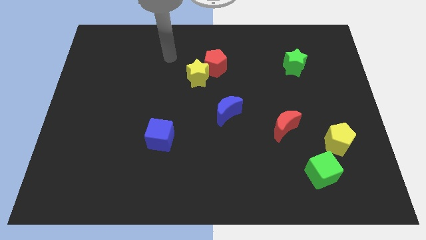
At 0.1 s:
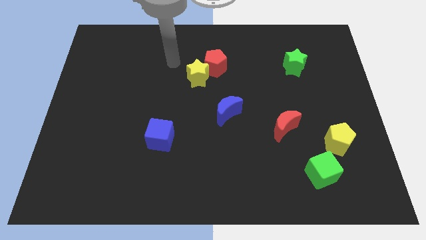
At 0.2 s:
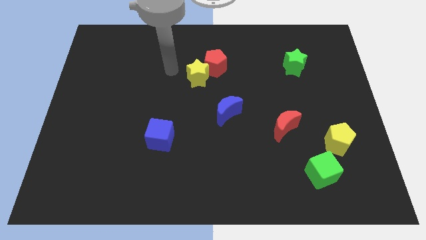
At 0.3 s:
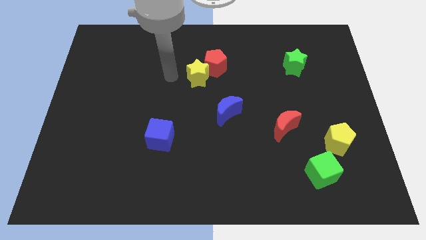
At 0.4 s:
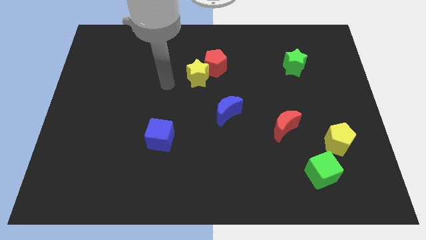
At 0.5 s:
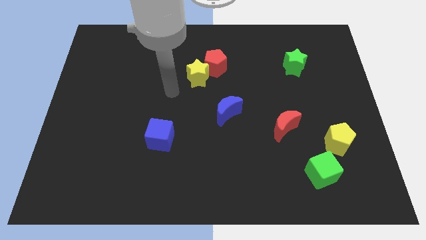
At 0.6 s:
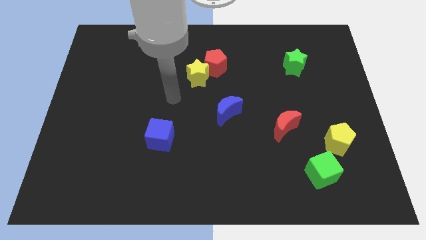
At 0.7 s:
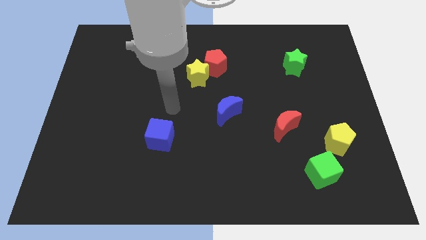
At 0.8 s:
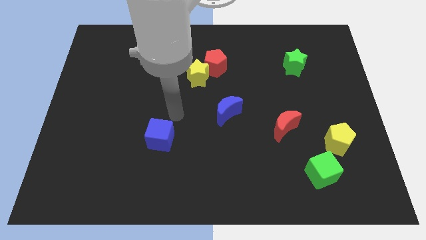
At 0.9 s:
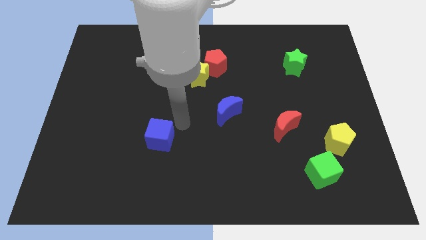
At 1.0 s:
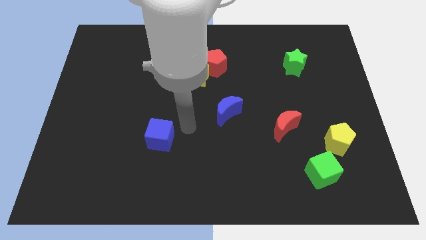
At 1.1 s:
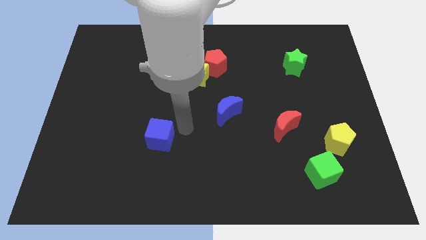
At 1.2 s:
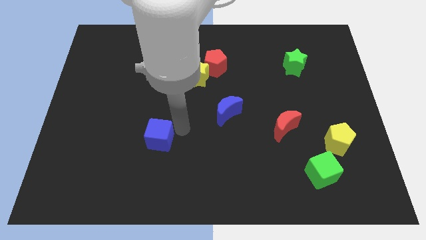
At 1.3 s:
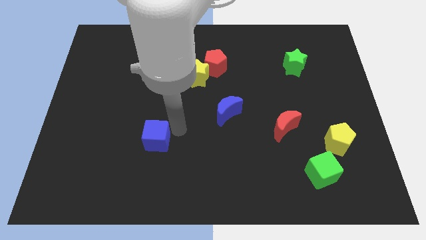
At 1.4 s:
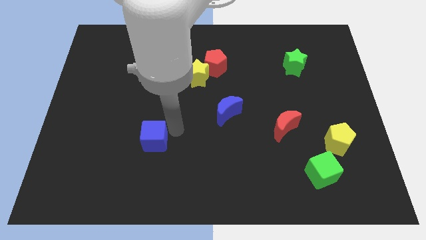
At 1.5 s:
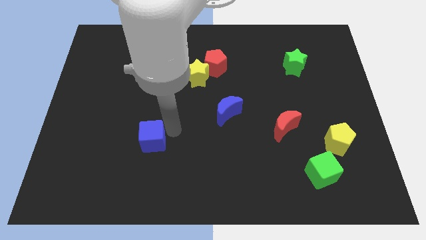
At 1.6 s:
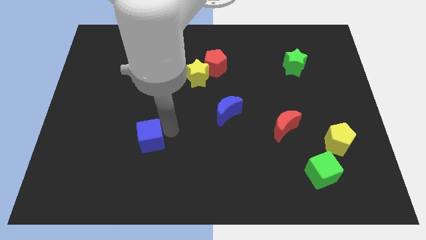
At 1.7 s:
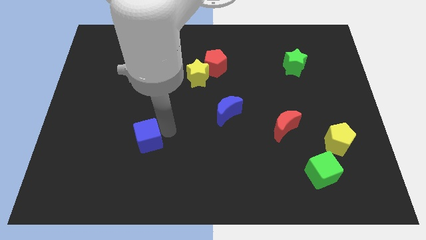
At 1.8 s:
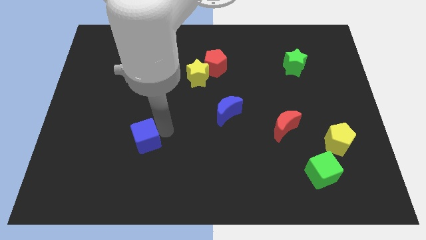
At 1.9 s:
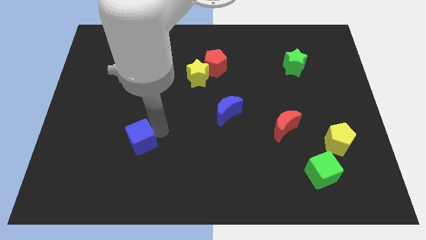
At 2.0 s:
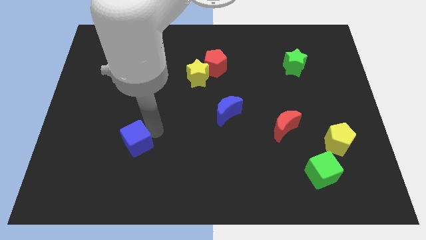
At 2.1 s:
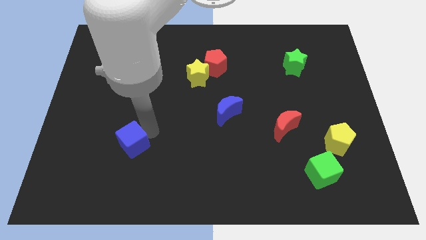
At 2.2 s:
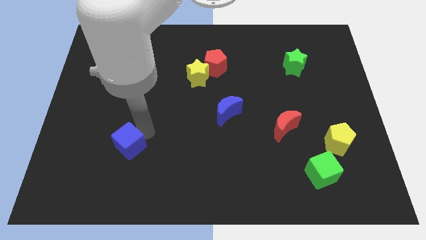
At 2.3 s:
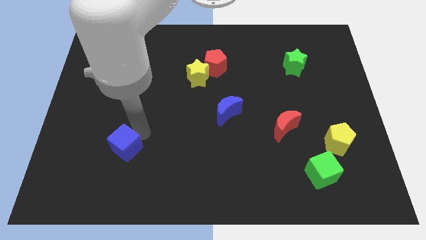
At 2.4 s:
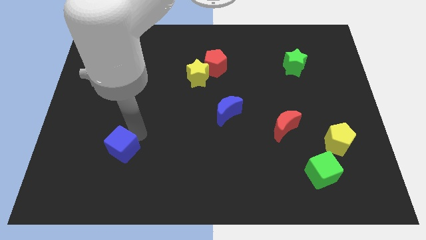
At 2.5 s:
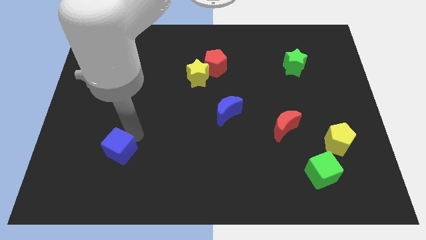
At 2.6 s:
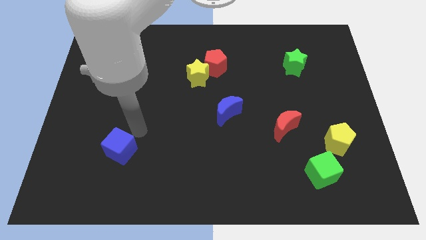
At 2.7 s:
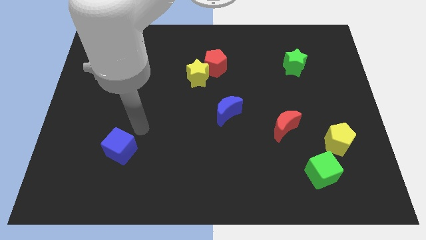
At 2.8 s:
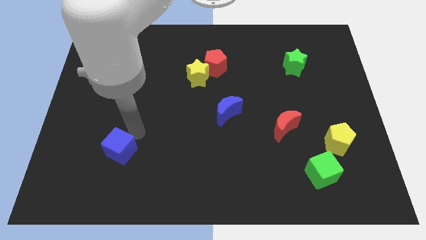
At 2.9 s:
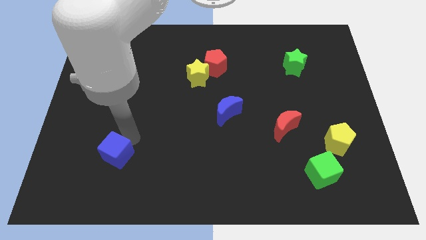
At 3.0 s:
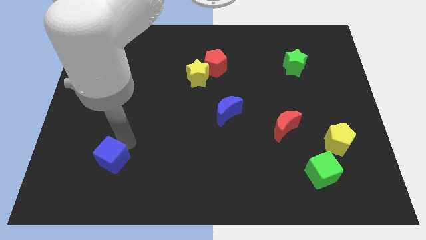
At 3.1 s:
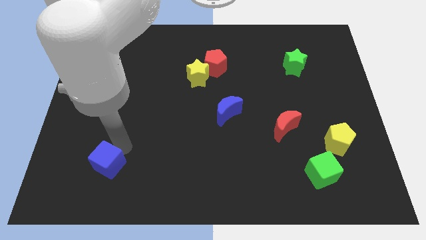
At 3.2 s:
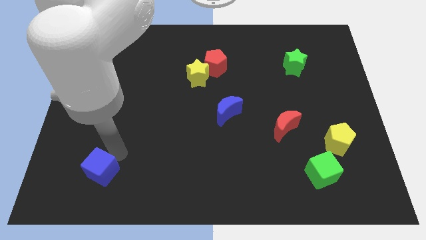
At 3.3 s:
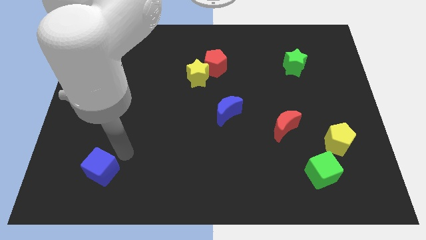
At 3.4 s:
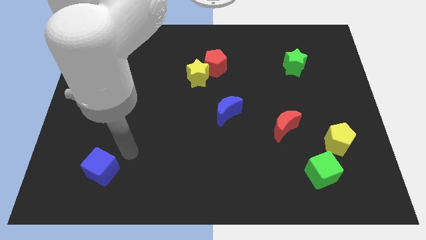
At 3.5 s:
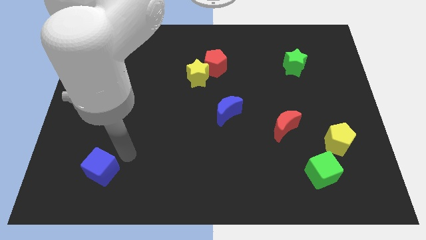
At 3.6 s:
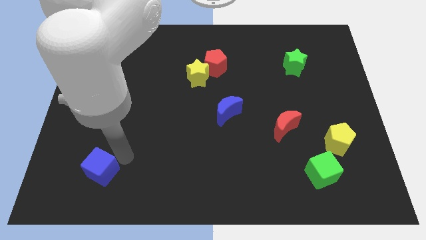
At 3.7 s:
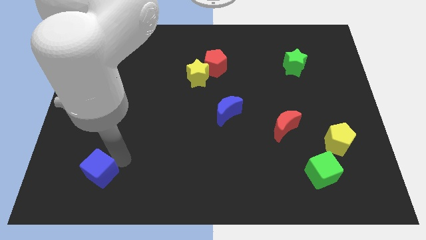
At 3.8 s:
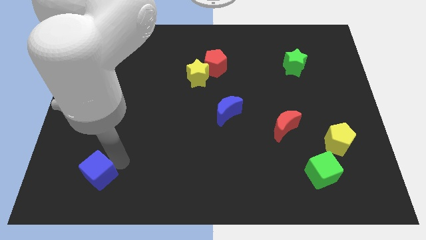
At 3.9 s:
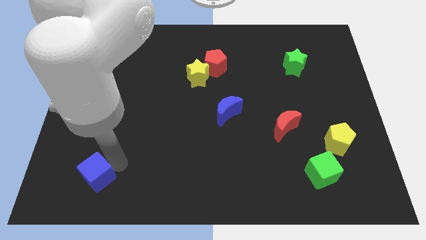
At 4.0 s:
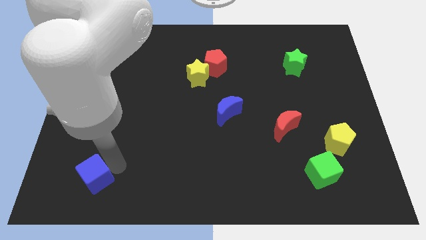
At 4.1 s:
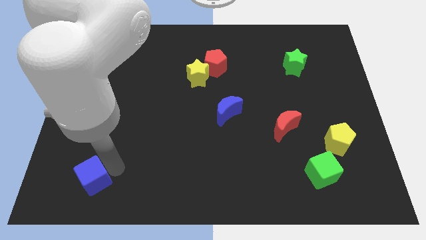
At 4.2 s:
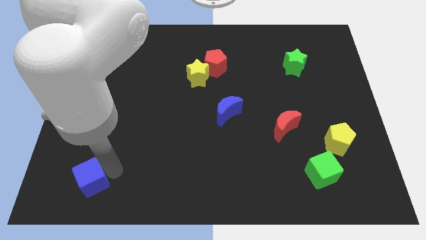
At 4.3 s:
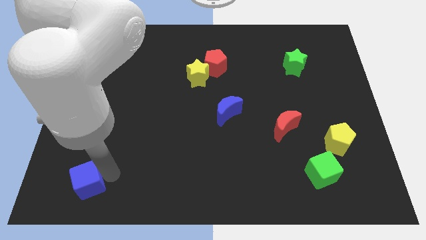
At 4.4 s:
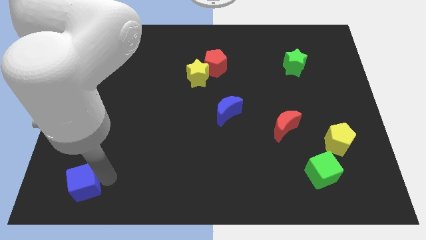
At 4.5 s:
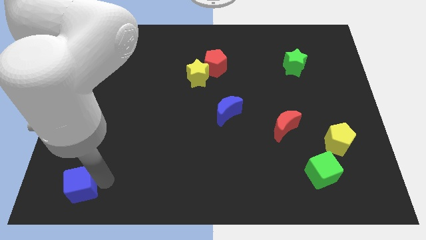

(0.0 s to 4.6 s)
move the blue cube to the bottom left

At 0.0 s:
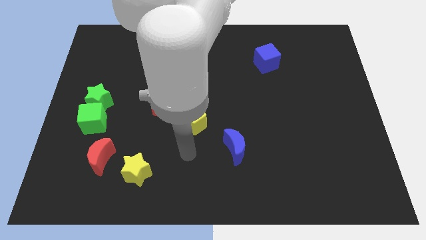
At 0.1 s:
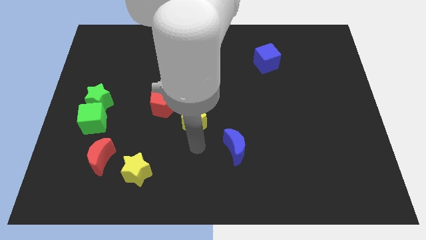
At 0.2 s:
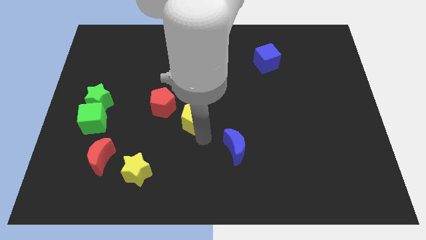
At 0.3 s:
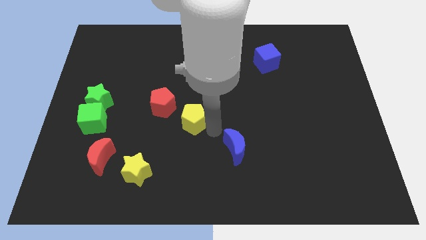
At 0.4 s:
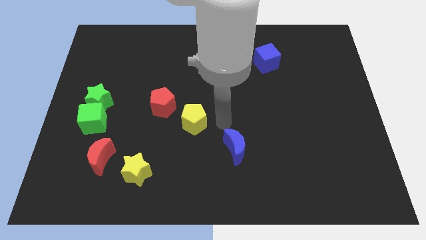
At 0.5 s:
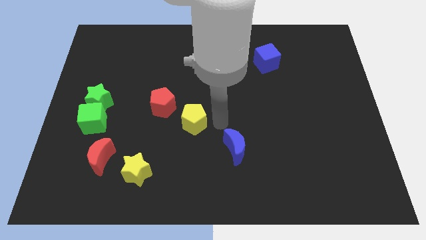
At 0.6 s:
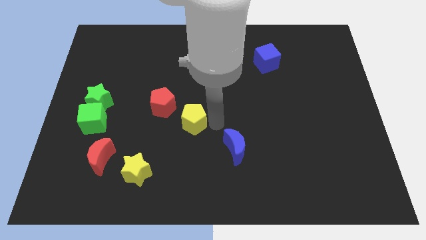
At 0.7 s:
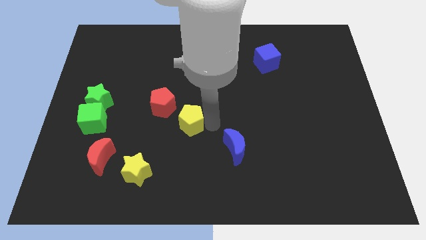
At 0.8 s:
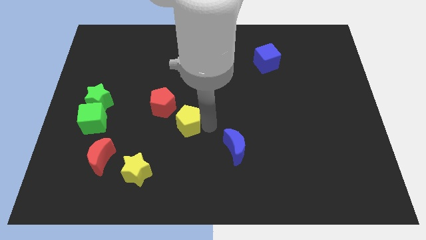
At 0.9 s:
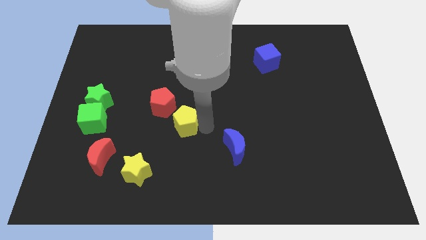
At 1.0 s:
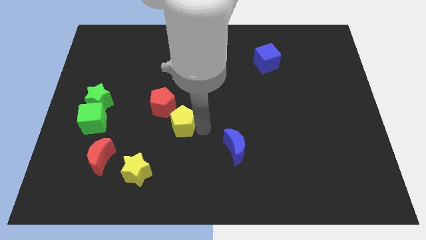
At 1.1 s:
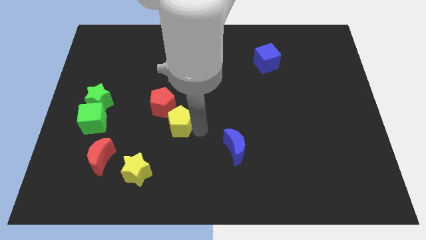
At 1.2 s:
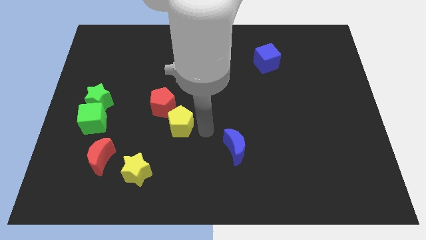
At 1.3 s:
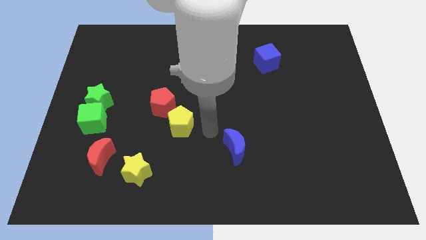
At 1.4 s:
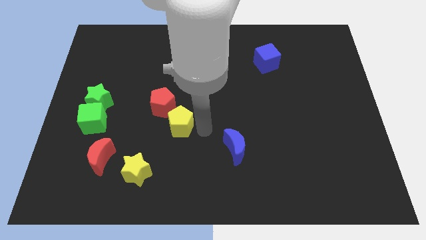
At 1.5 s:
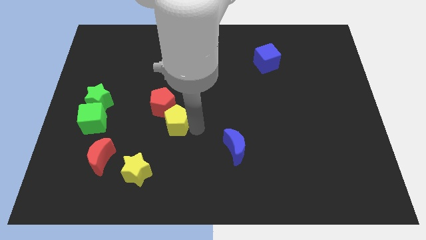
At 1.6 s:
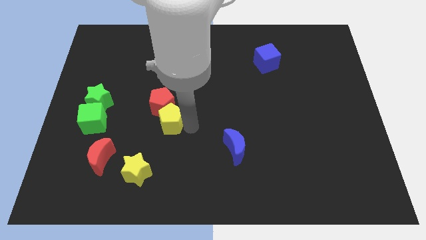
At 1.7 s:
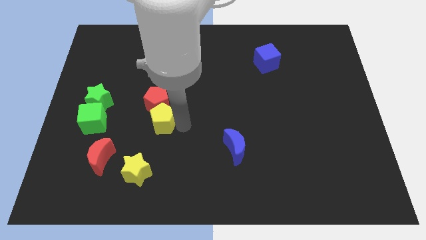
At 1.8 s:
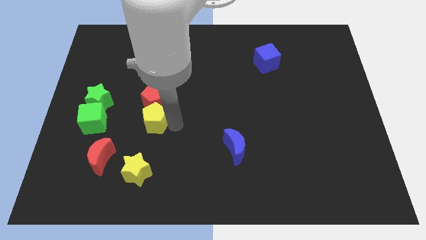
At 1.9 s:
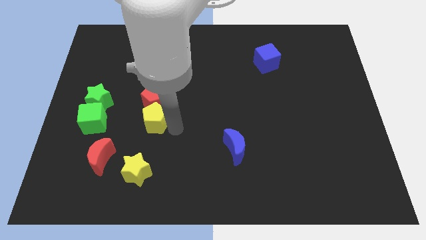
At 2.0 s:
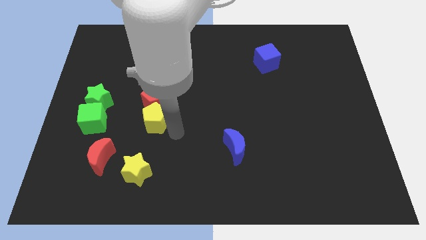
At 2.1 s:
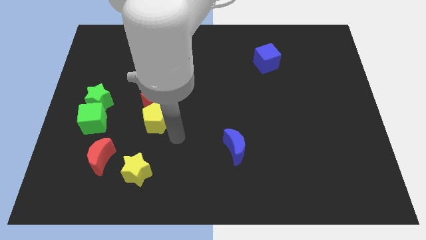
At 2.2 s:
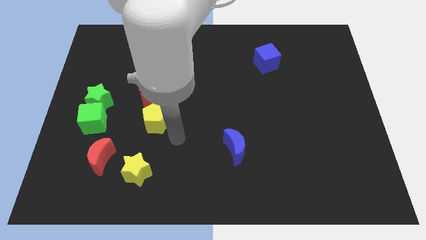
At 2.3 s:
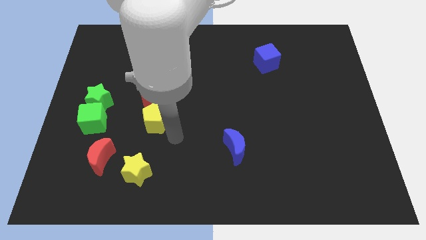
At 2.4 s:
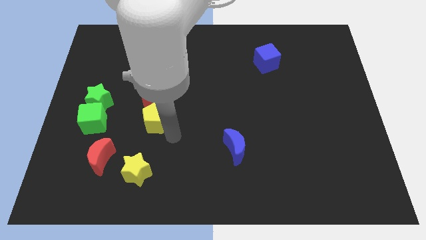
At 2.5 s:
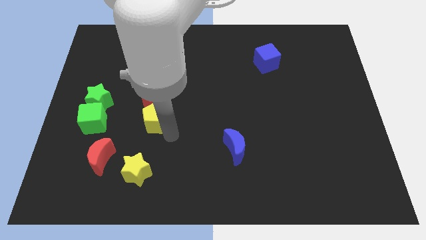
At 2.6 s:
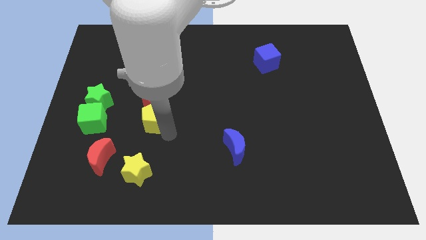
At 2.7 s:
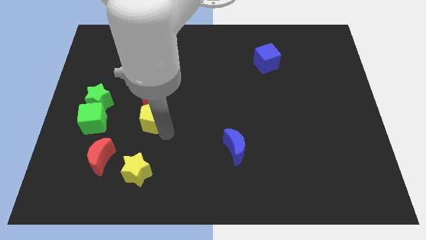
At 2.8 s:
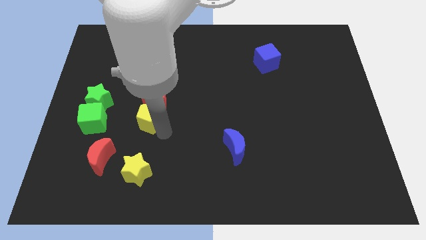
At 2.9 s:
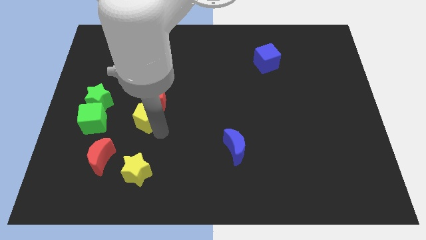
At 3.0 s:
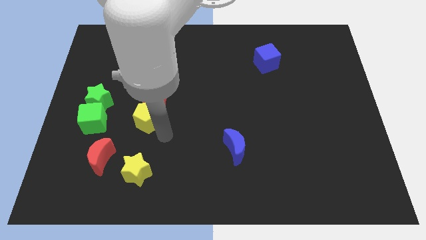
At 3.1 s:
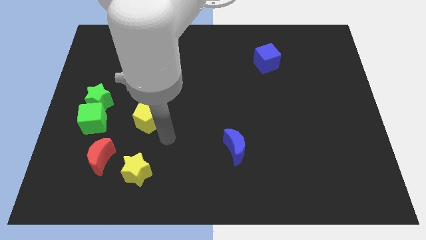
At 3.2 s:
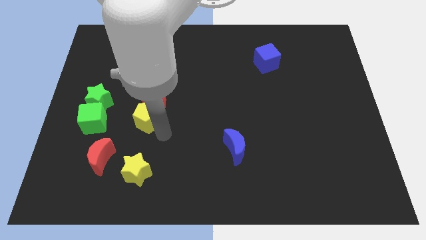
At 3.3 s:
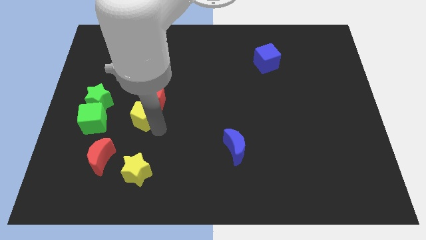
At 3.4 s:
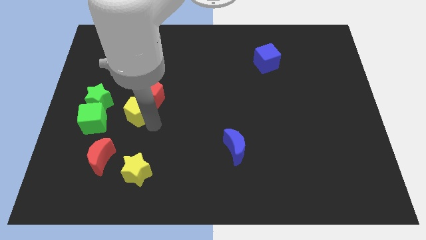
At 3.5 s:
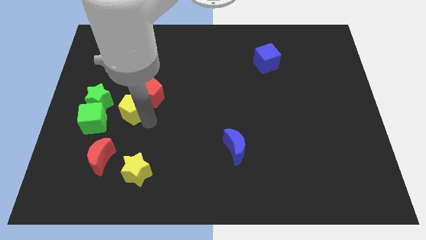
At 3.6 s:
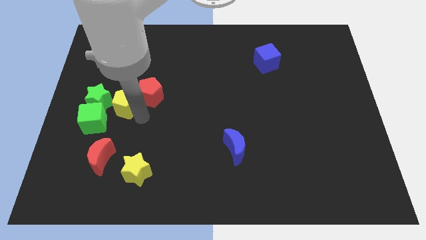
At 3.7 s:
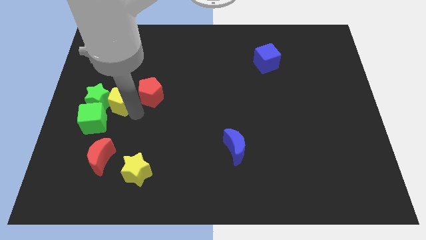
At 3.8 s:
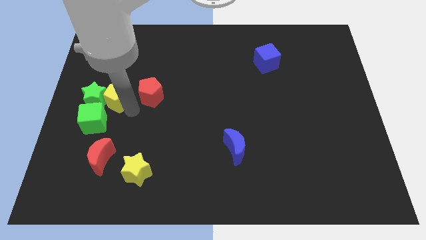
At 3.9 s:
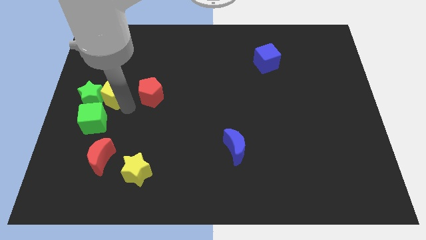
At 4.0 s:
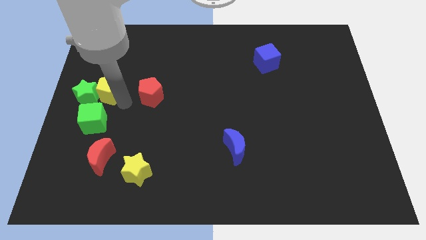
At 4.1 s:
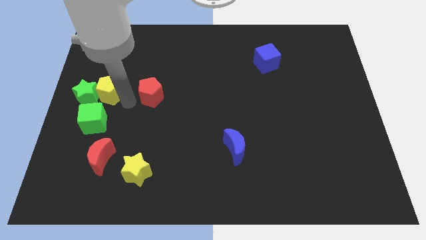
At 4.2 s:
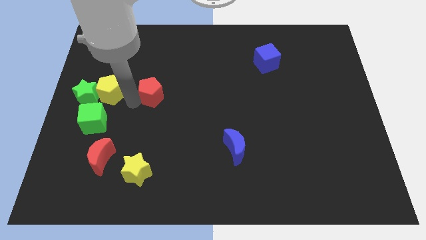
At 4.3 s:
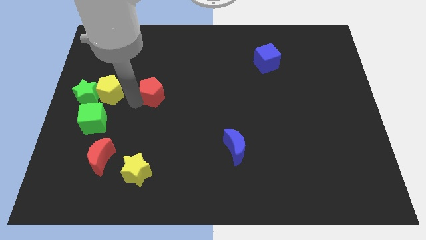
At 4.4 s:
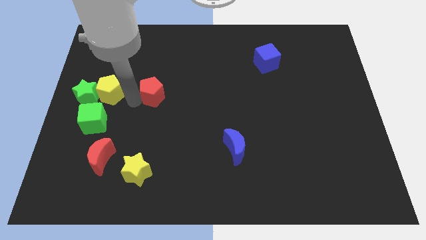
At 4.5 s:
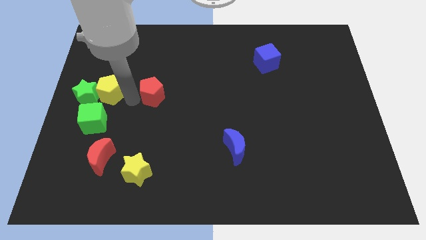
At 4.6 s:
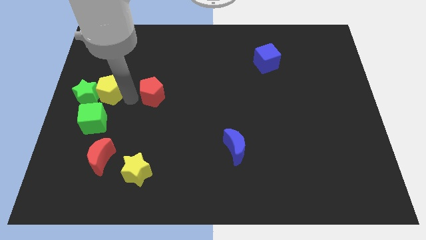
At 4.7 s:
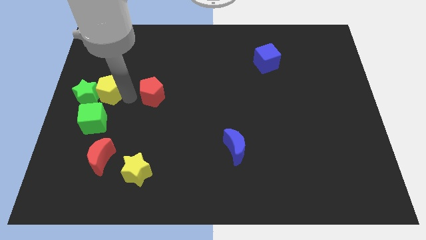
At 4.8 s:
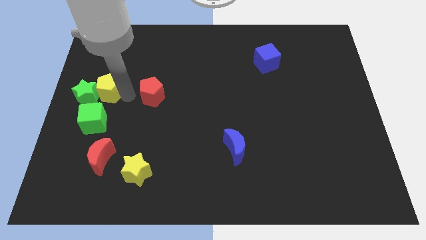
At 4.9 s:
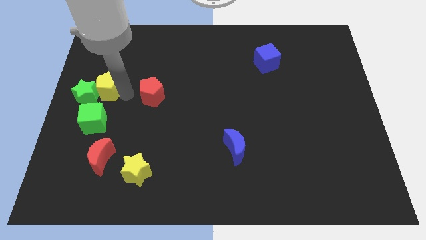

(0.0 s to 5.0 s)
put the yellow pentagon to the left side of the board
